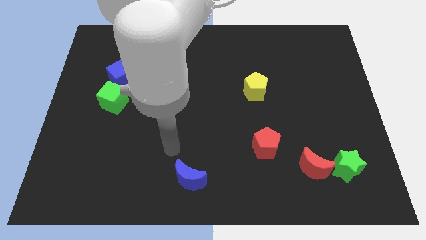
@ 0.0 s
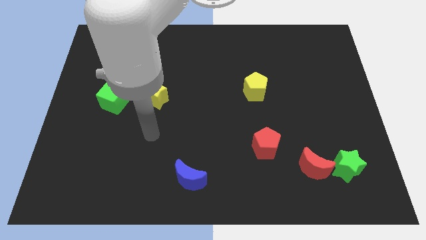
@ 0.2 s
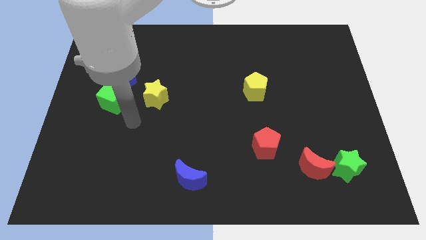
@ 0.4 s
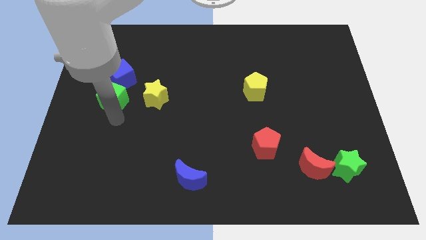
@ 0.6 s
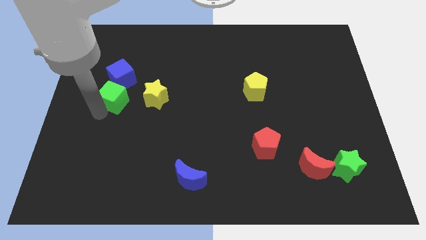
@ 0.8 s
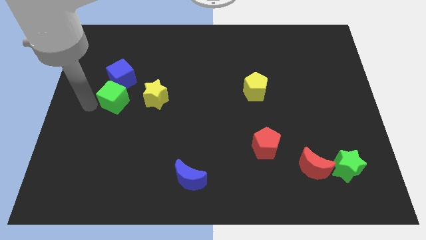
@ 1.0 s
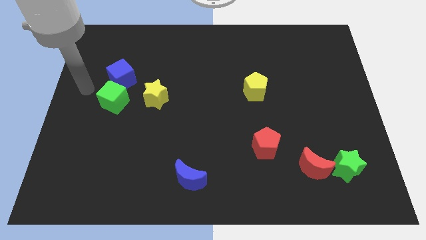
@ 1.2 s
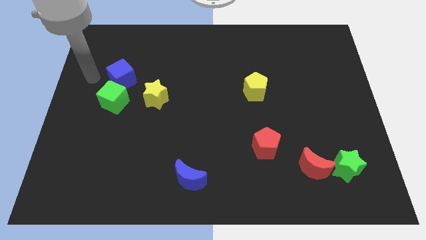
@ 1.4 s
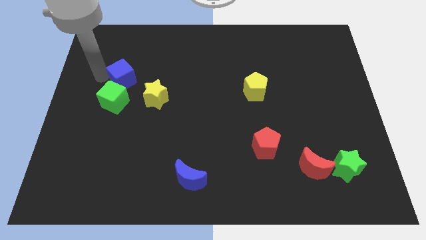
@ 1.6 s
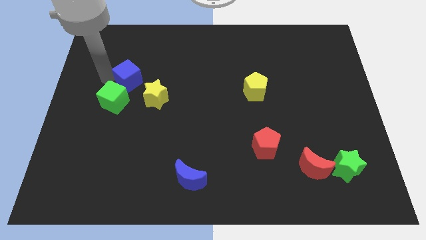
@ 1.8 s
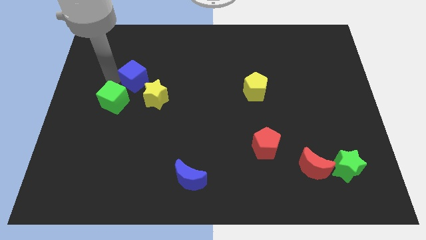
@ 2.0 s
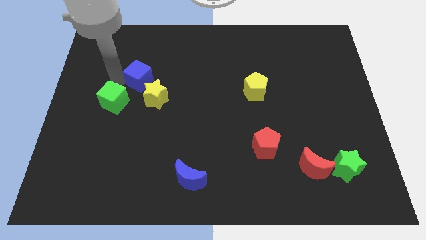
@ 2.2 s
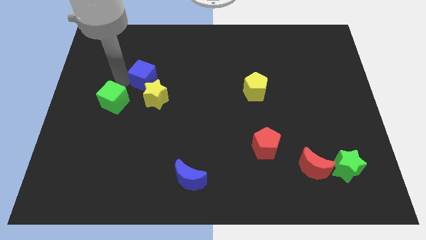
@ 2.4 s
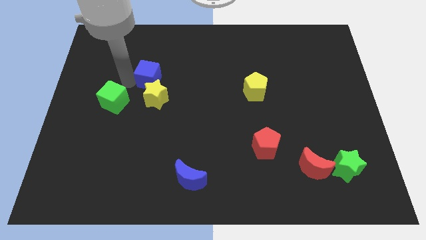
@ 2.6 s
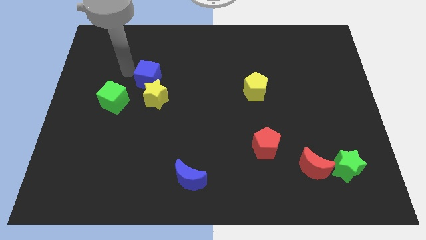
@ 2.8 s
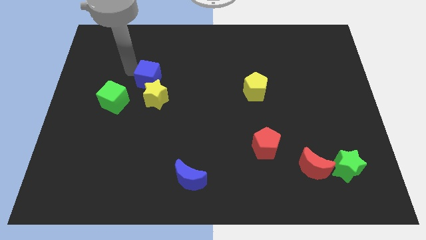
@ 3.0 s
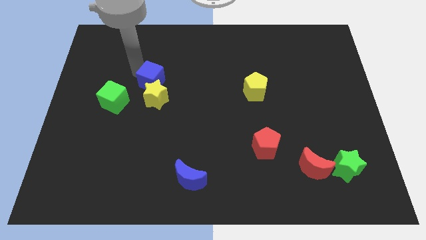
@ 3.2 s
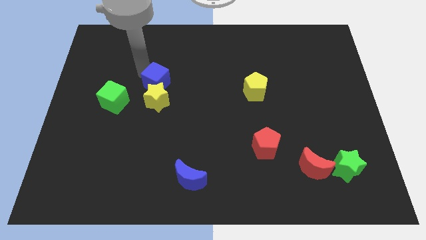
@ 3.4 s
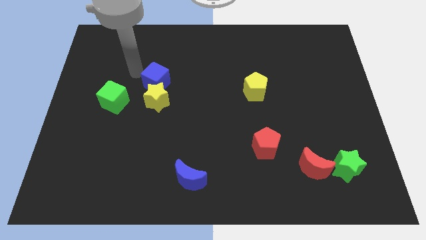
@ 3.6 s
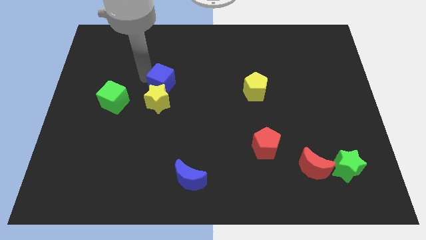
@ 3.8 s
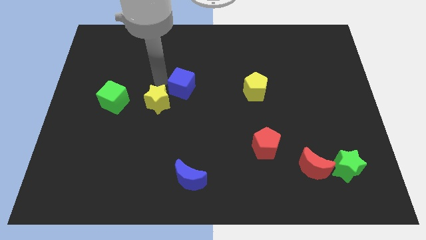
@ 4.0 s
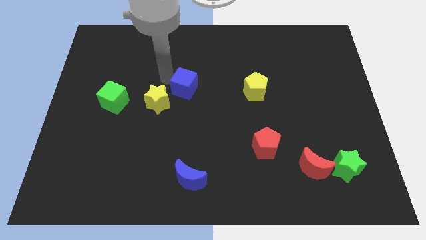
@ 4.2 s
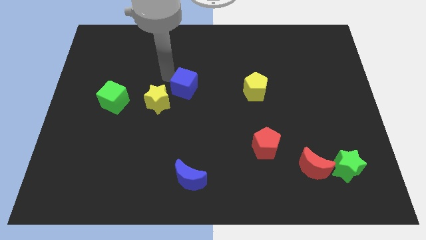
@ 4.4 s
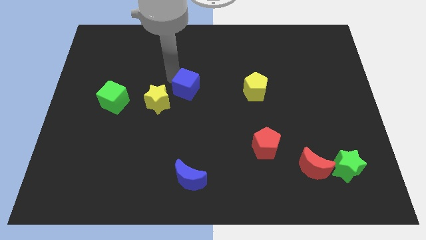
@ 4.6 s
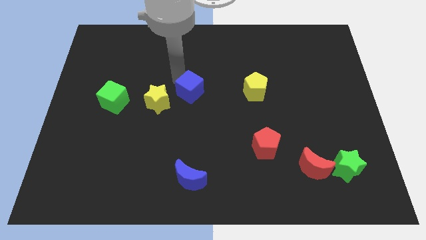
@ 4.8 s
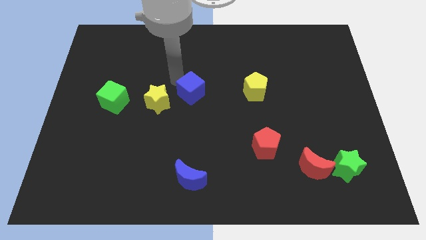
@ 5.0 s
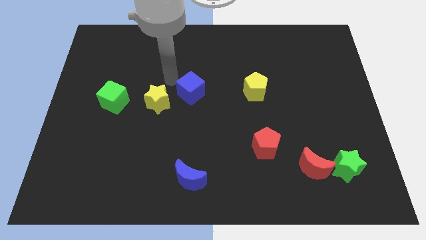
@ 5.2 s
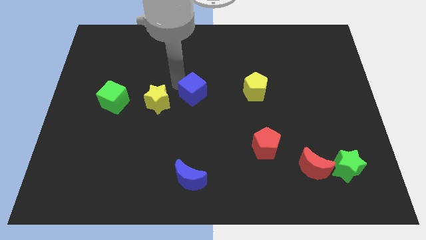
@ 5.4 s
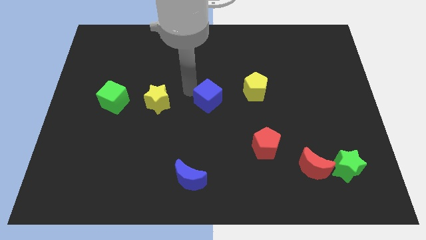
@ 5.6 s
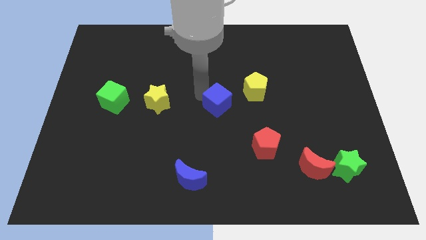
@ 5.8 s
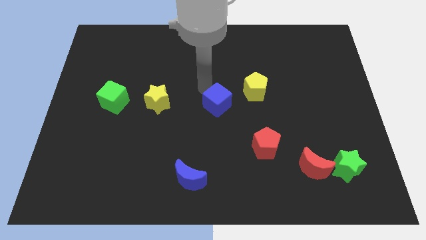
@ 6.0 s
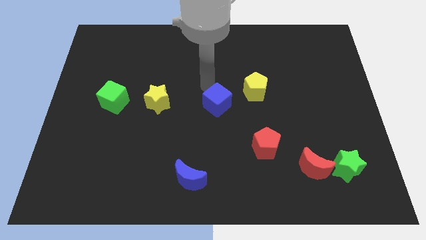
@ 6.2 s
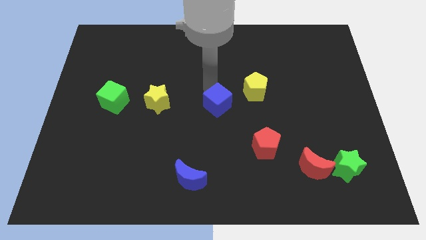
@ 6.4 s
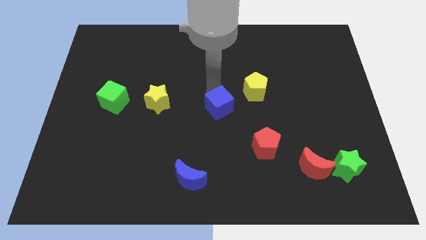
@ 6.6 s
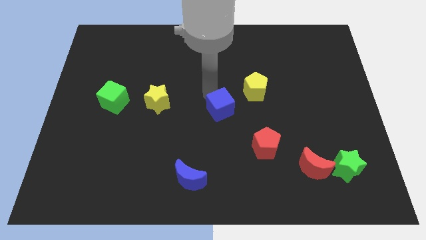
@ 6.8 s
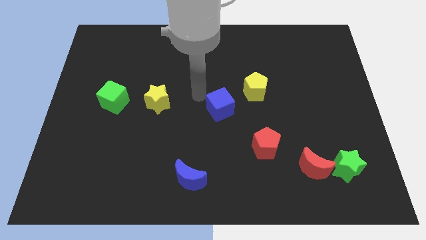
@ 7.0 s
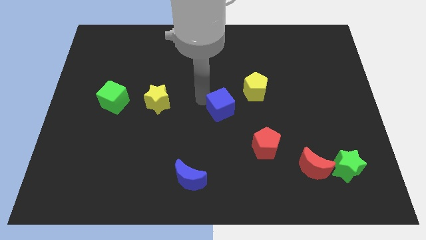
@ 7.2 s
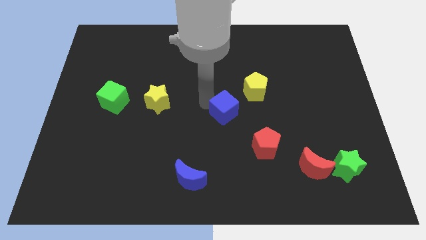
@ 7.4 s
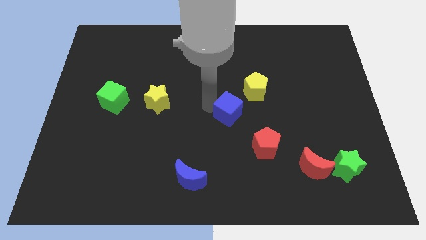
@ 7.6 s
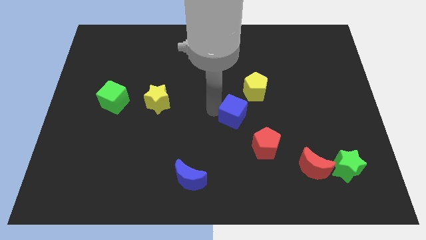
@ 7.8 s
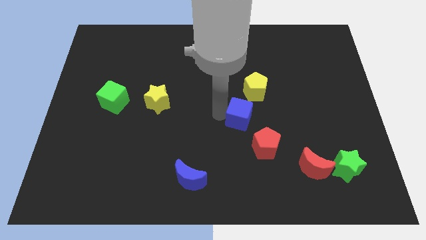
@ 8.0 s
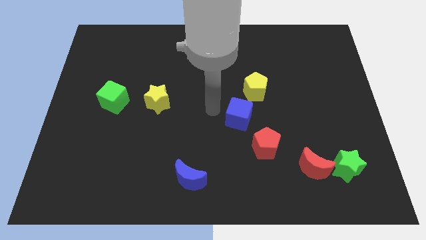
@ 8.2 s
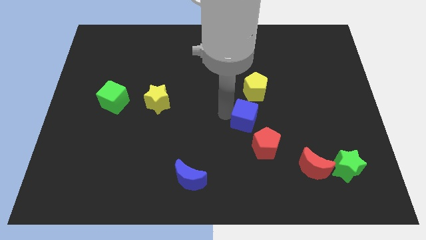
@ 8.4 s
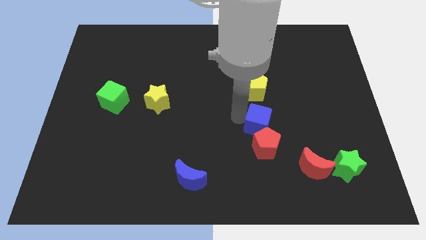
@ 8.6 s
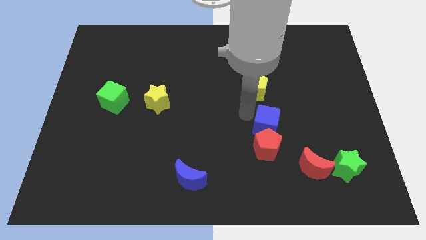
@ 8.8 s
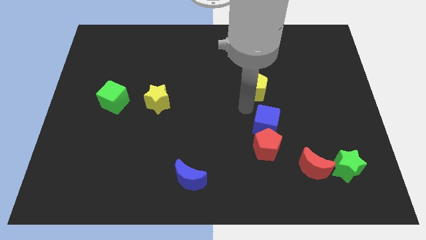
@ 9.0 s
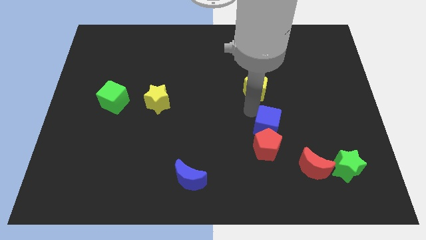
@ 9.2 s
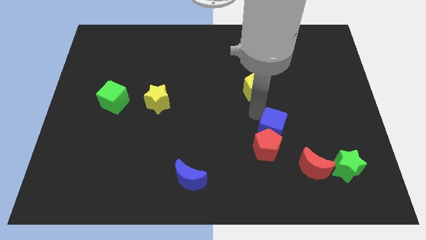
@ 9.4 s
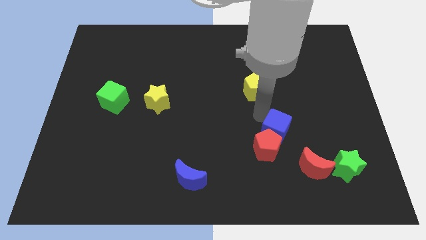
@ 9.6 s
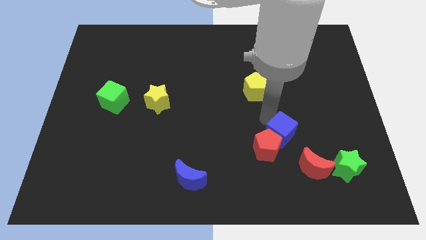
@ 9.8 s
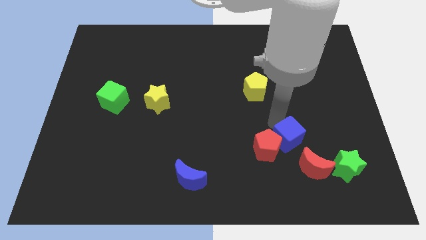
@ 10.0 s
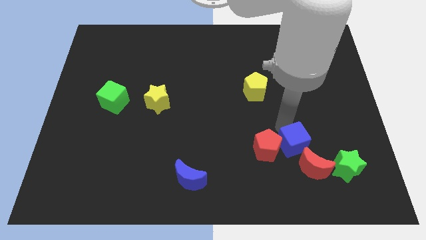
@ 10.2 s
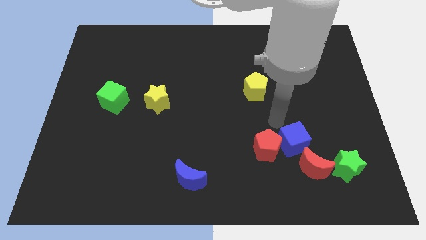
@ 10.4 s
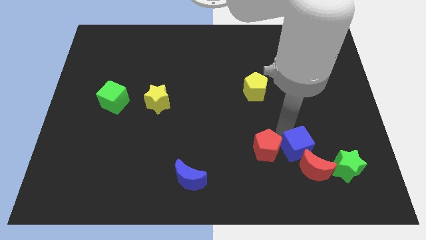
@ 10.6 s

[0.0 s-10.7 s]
slide the blue cube towards the red moon
